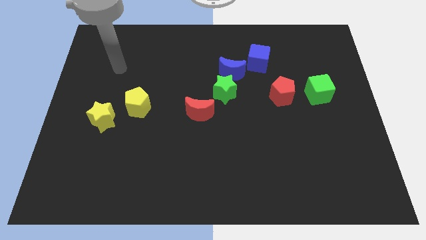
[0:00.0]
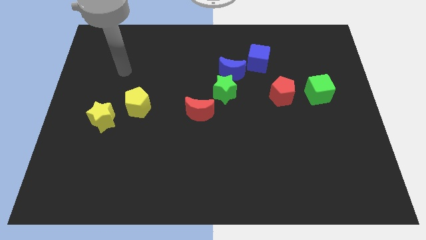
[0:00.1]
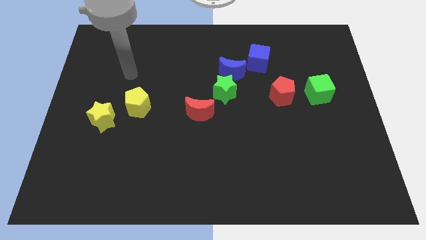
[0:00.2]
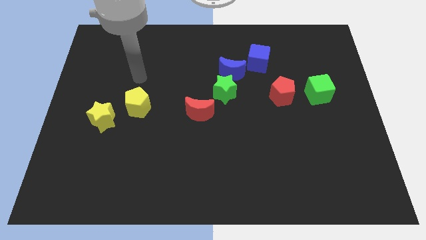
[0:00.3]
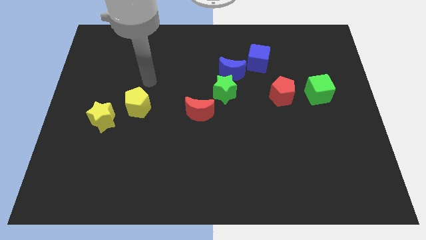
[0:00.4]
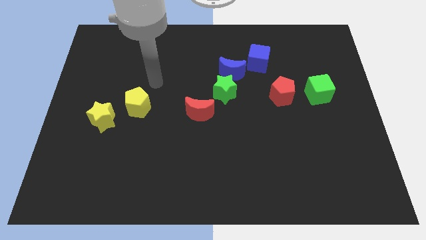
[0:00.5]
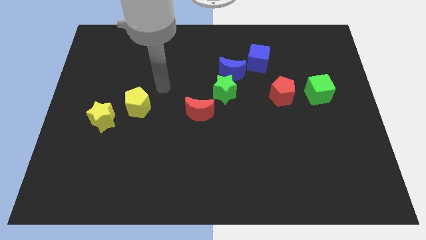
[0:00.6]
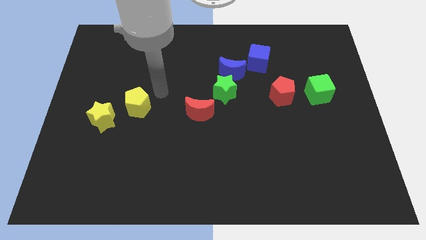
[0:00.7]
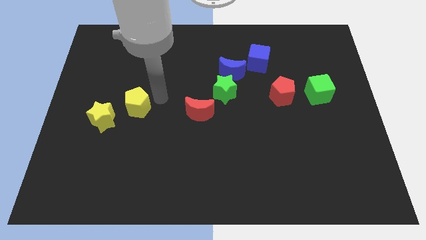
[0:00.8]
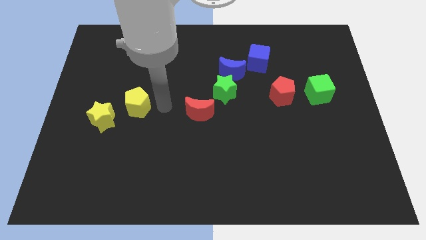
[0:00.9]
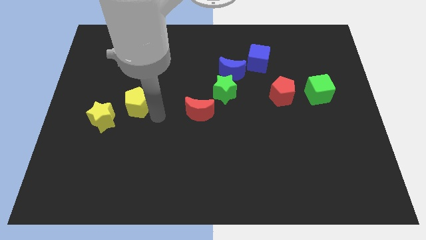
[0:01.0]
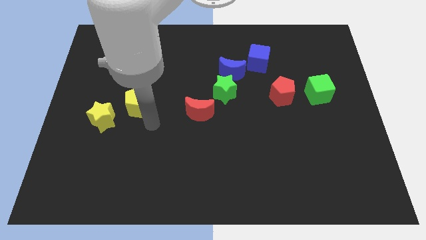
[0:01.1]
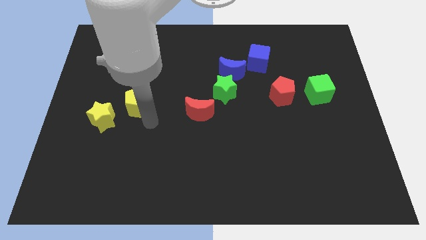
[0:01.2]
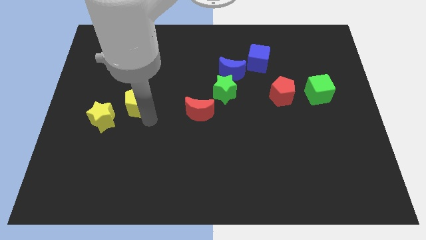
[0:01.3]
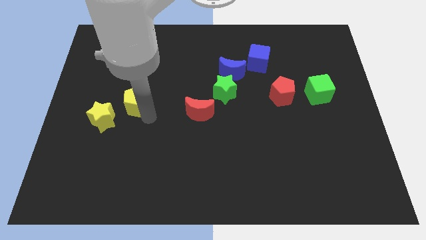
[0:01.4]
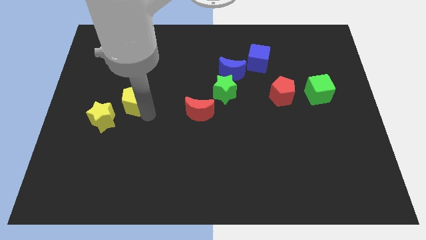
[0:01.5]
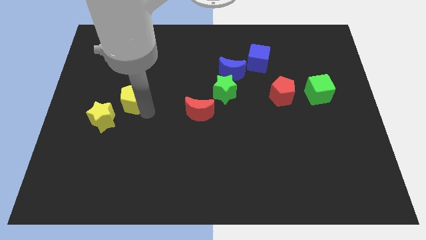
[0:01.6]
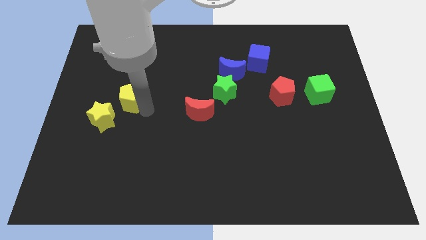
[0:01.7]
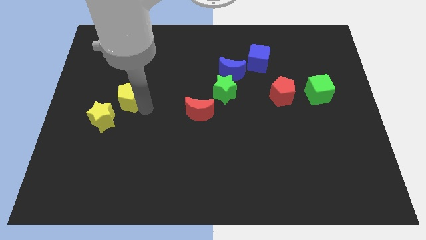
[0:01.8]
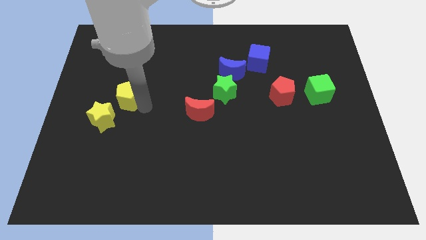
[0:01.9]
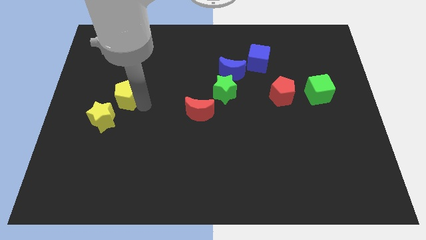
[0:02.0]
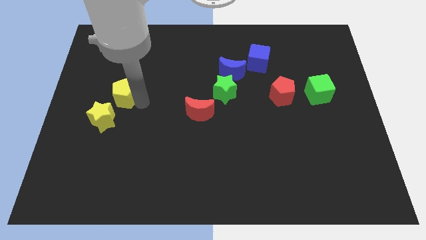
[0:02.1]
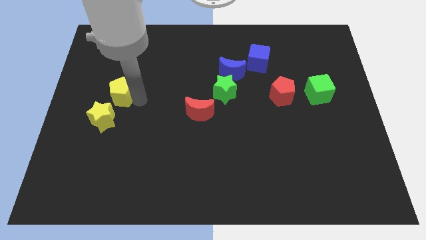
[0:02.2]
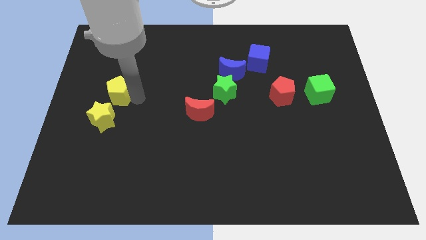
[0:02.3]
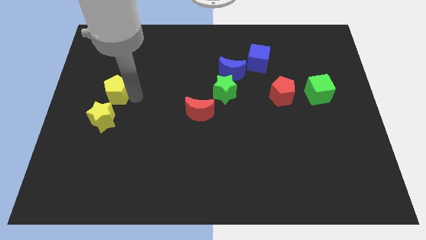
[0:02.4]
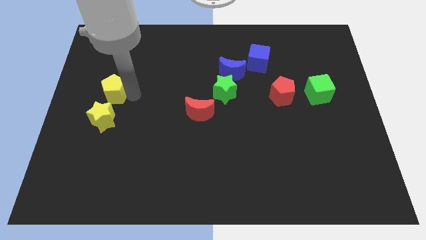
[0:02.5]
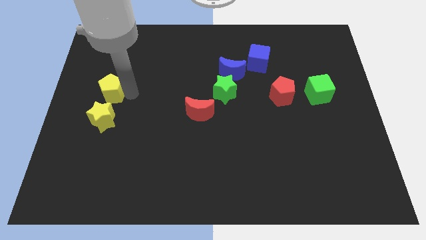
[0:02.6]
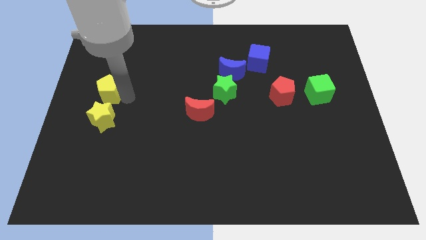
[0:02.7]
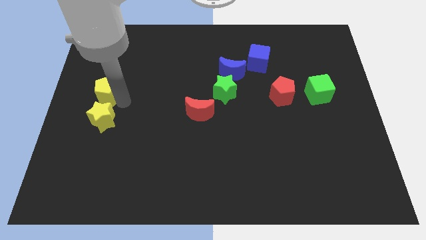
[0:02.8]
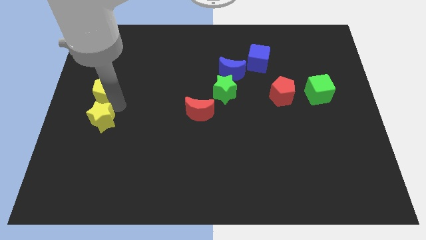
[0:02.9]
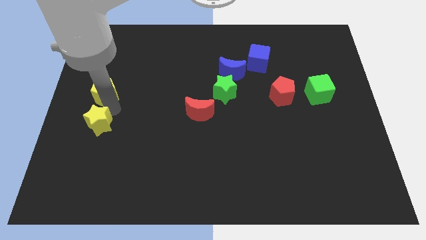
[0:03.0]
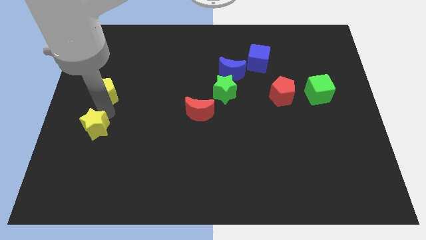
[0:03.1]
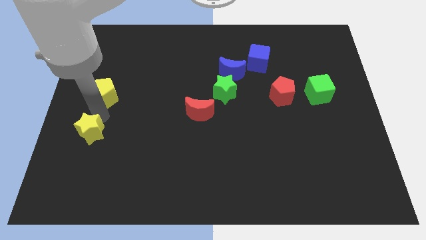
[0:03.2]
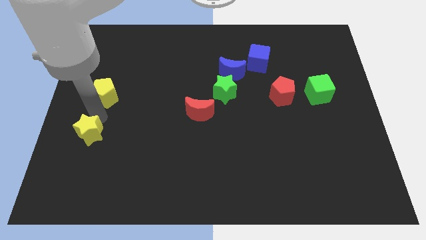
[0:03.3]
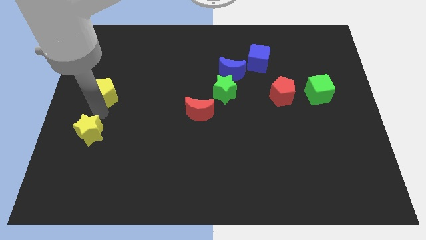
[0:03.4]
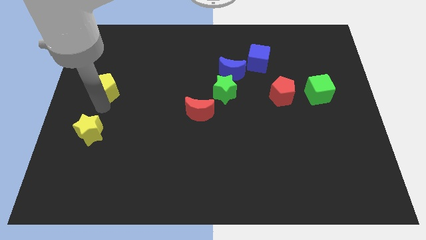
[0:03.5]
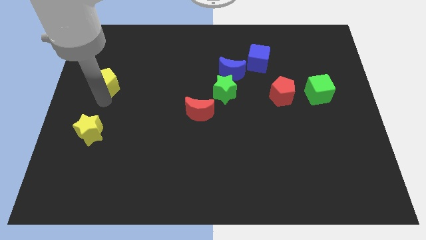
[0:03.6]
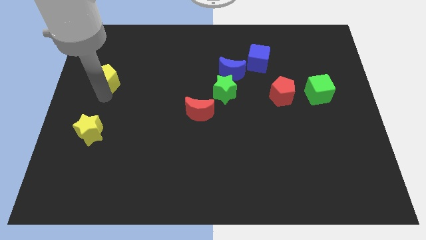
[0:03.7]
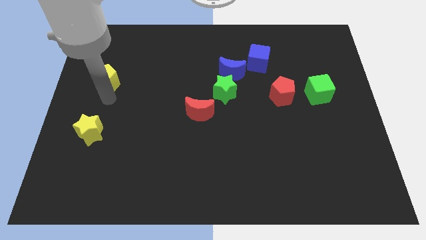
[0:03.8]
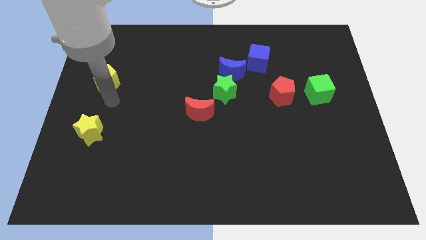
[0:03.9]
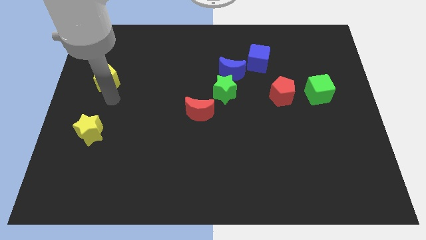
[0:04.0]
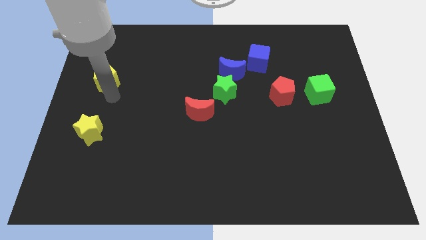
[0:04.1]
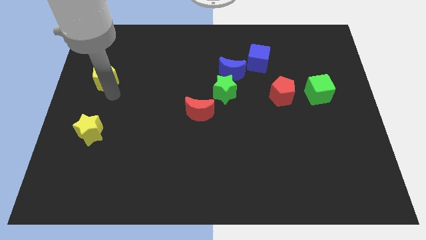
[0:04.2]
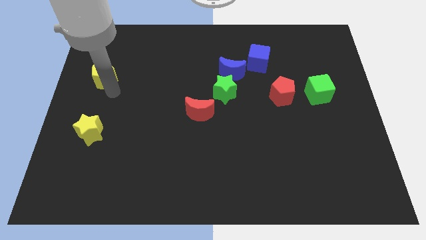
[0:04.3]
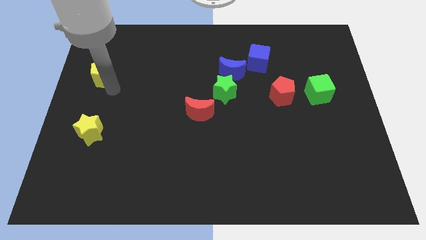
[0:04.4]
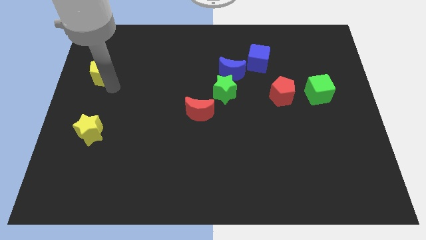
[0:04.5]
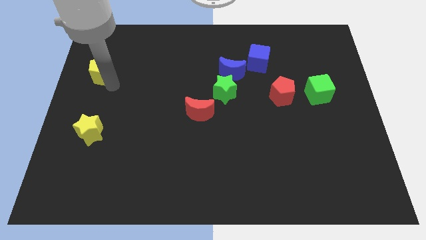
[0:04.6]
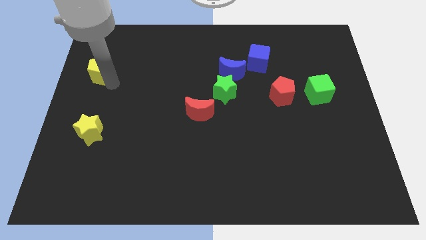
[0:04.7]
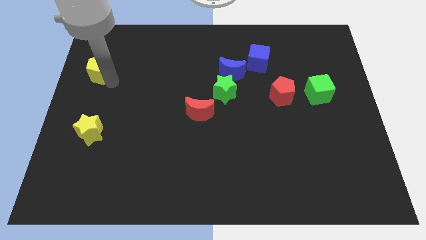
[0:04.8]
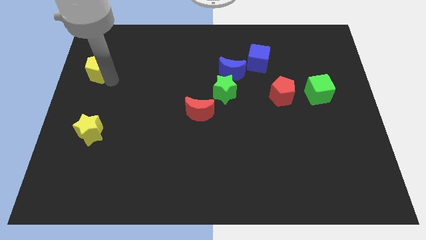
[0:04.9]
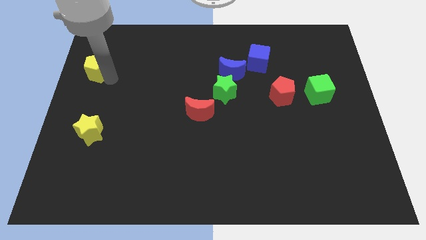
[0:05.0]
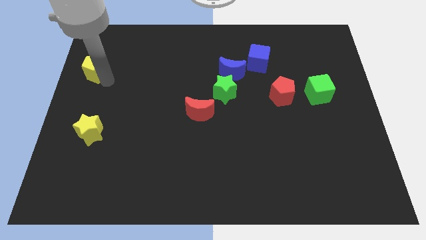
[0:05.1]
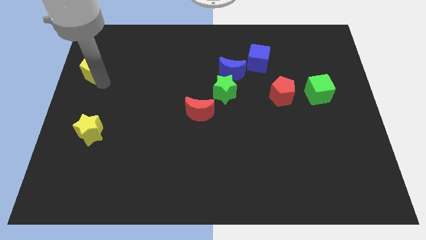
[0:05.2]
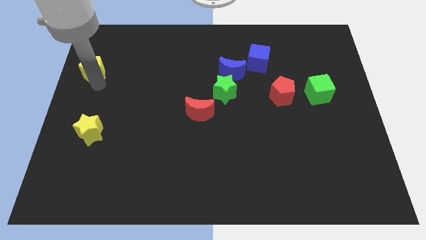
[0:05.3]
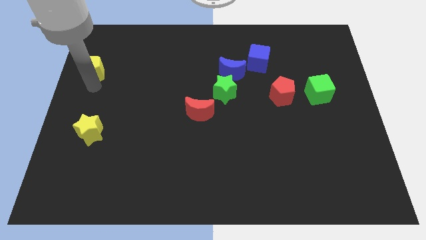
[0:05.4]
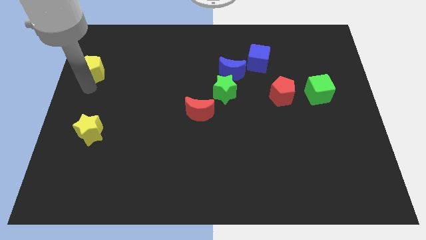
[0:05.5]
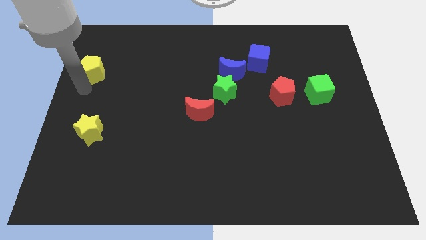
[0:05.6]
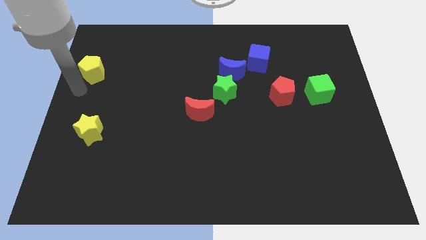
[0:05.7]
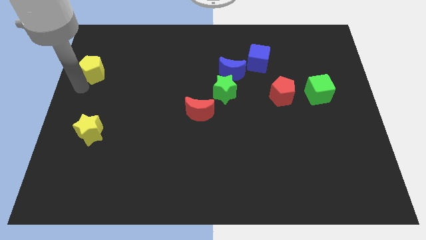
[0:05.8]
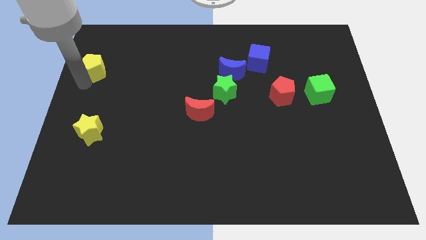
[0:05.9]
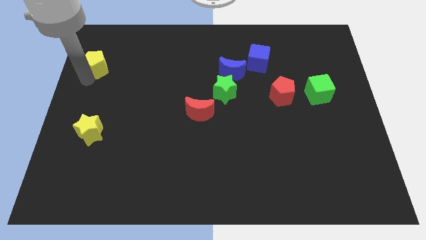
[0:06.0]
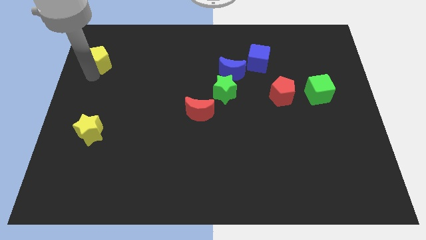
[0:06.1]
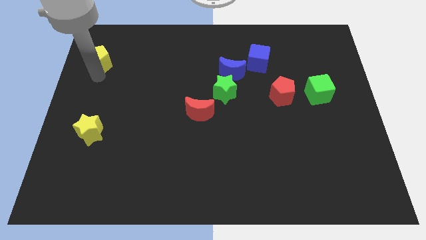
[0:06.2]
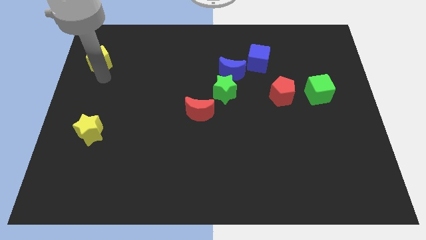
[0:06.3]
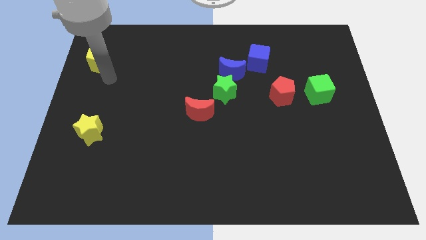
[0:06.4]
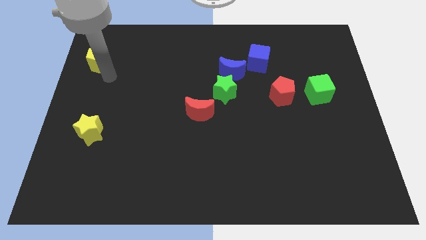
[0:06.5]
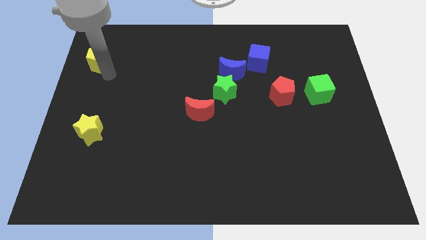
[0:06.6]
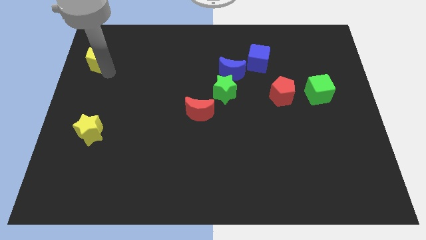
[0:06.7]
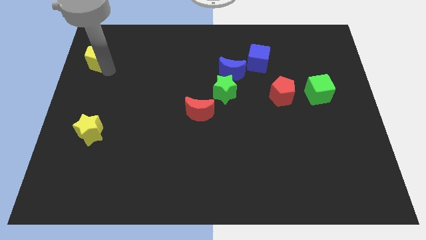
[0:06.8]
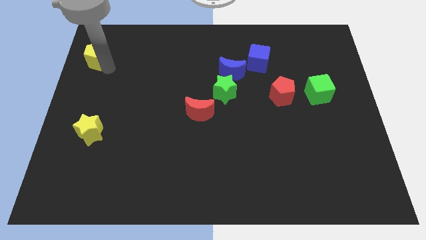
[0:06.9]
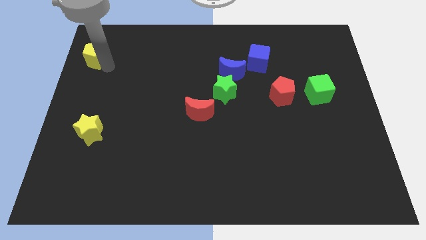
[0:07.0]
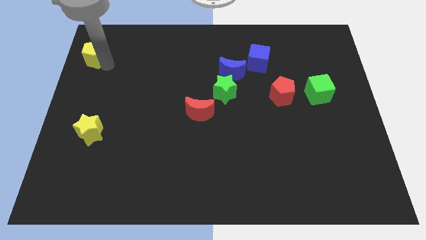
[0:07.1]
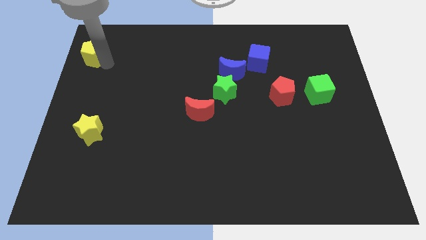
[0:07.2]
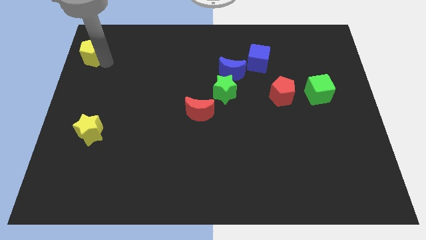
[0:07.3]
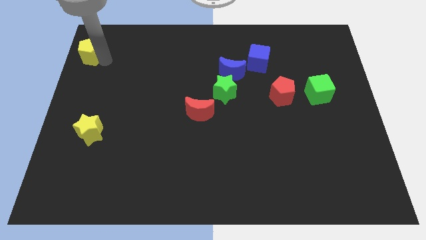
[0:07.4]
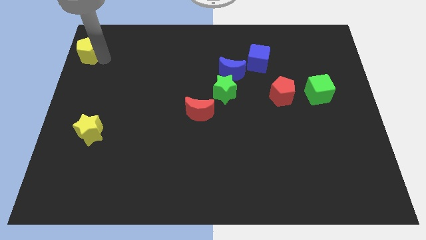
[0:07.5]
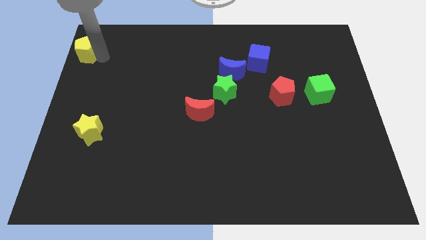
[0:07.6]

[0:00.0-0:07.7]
slide the yellow pentagon to the upper left corner
